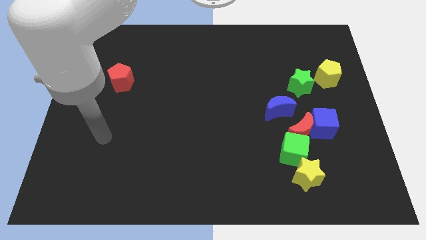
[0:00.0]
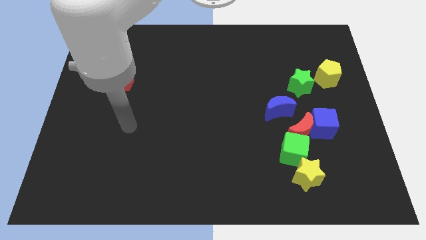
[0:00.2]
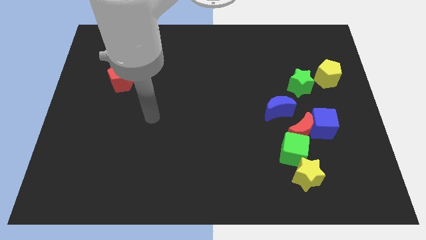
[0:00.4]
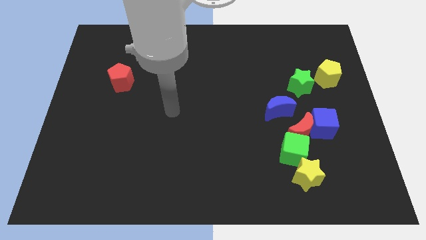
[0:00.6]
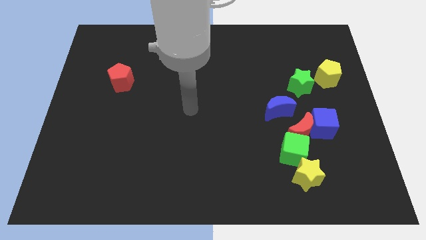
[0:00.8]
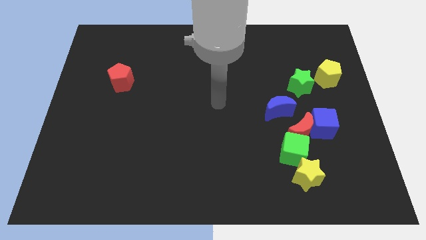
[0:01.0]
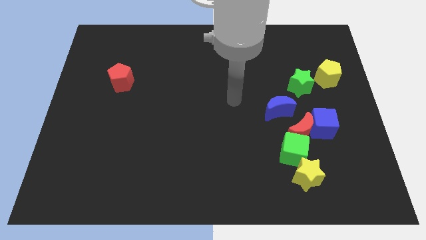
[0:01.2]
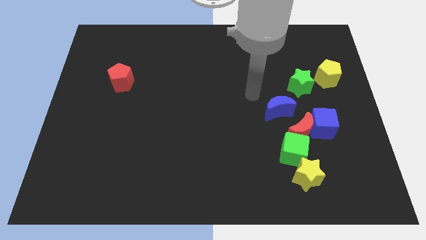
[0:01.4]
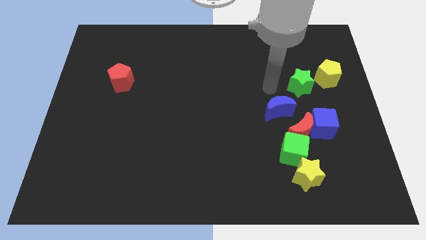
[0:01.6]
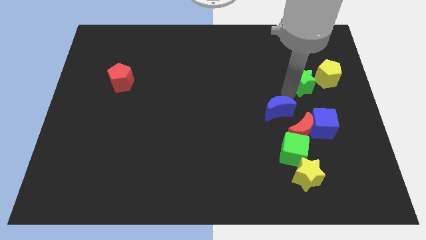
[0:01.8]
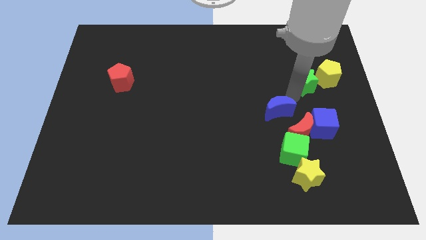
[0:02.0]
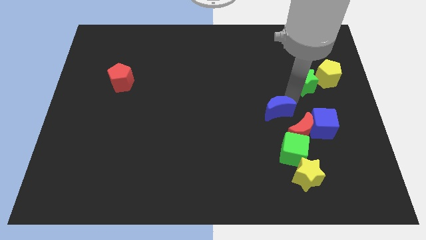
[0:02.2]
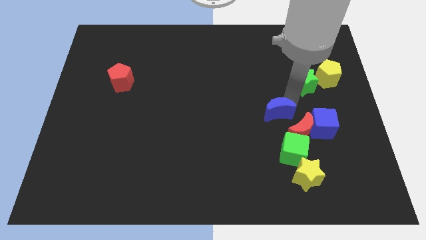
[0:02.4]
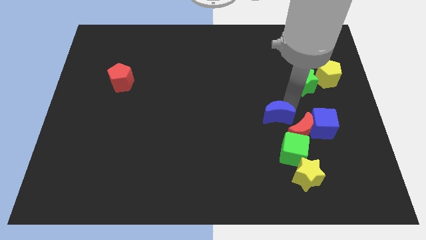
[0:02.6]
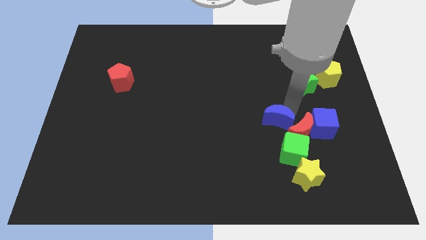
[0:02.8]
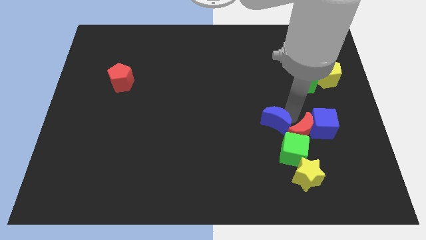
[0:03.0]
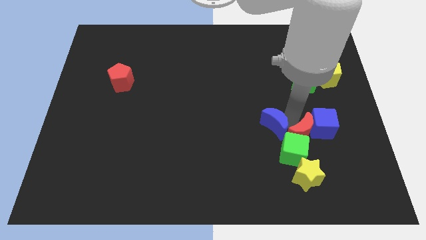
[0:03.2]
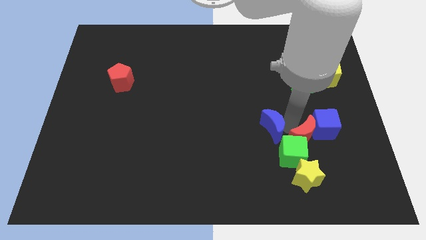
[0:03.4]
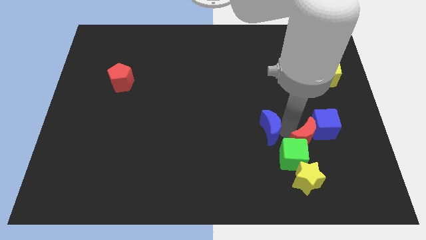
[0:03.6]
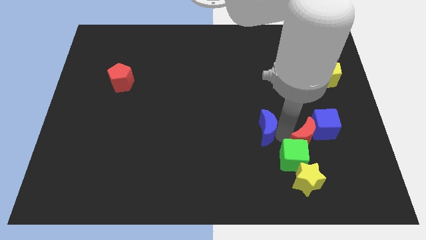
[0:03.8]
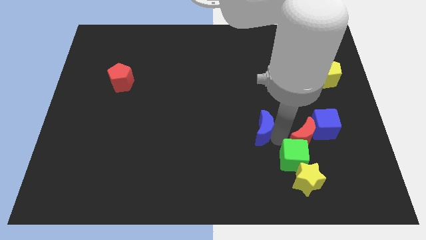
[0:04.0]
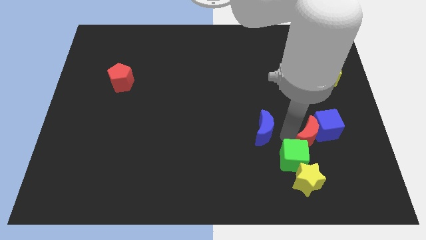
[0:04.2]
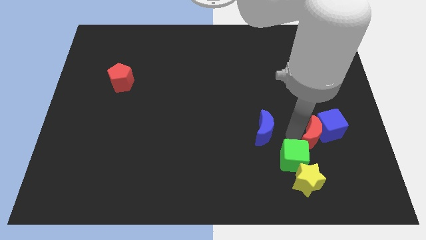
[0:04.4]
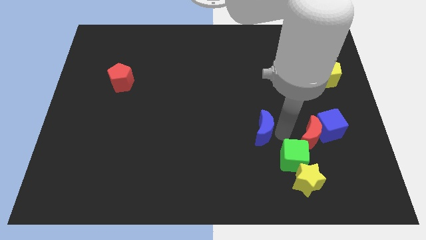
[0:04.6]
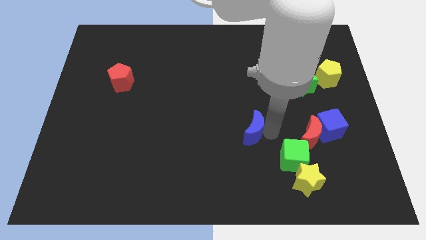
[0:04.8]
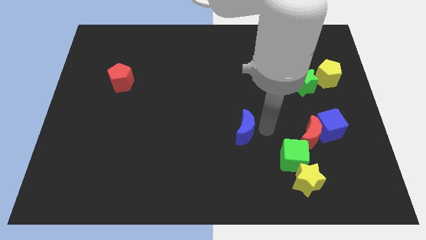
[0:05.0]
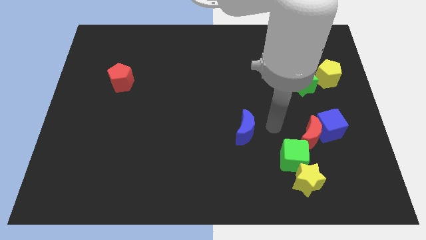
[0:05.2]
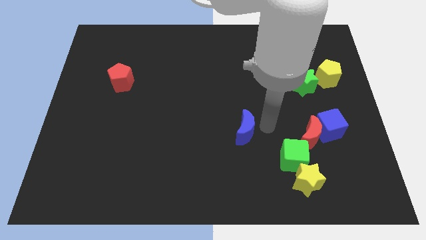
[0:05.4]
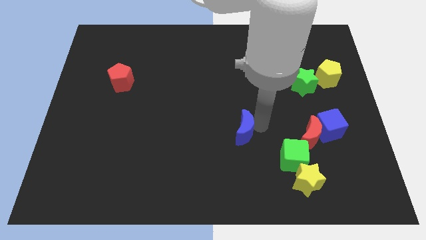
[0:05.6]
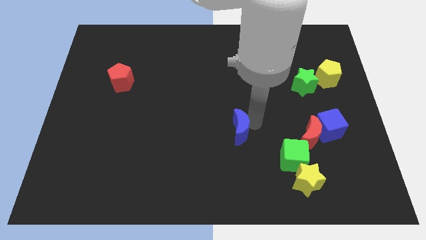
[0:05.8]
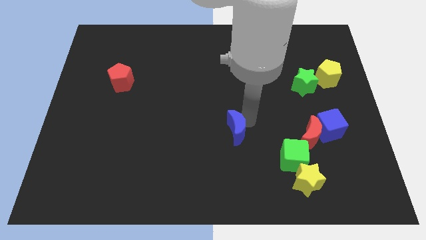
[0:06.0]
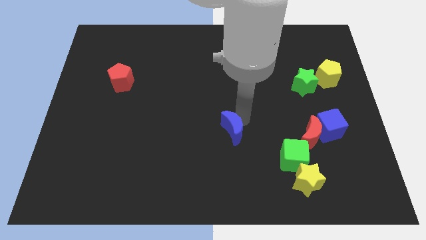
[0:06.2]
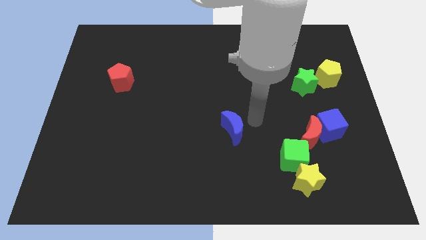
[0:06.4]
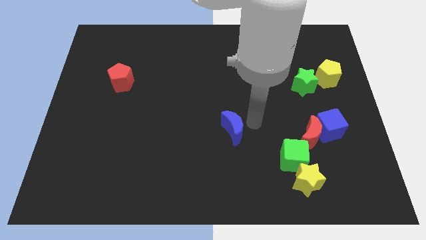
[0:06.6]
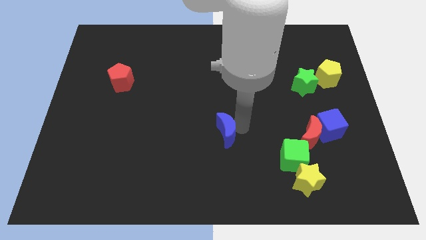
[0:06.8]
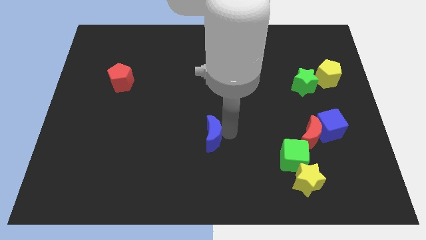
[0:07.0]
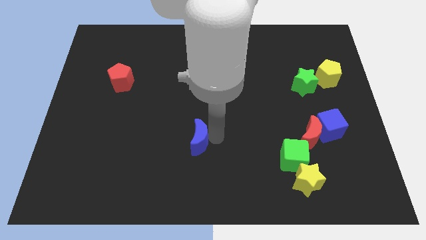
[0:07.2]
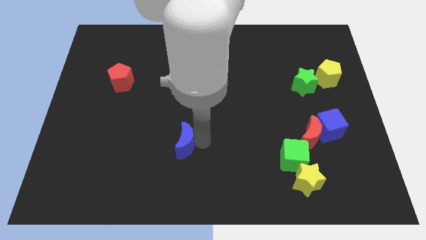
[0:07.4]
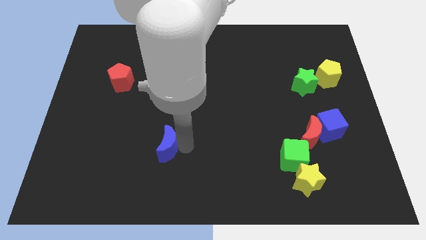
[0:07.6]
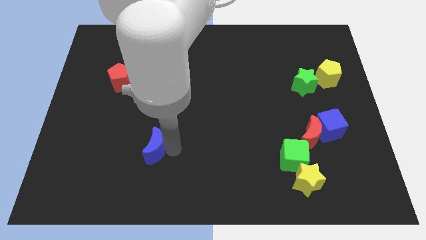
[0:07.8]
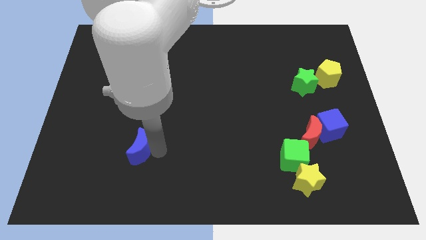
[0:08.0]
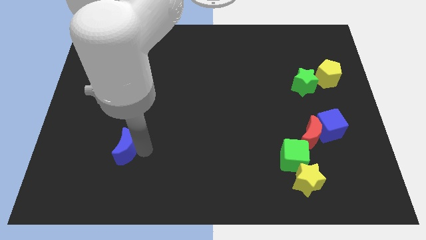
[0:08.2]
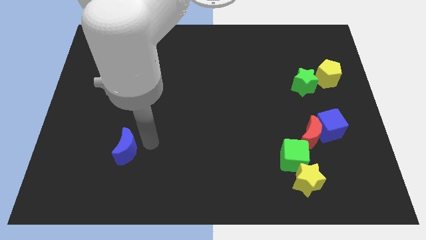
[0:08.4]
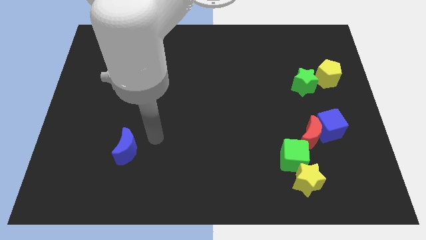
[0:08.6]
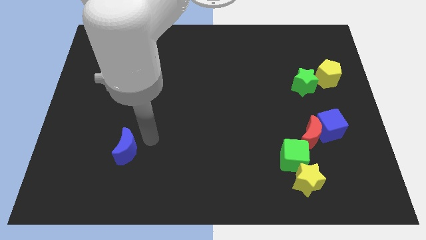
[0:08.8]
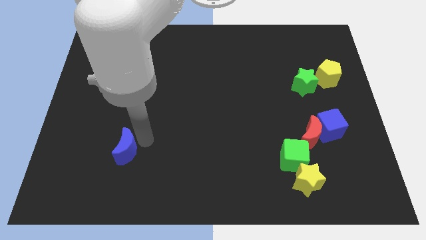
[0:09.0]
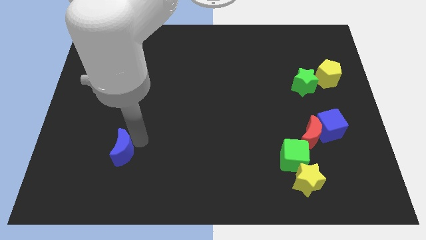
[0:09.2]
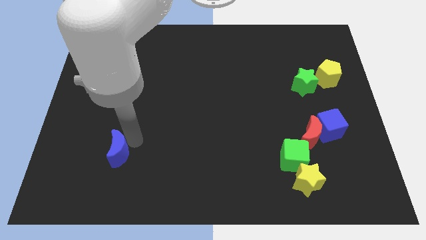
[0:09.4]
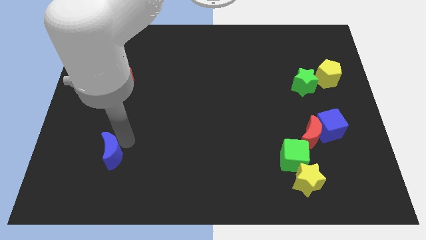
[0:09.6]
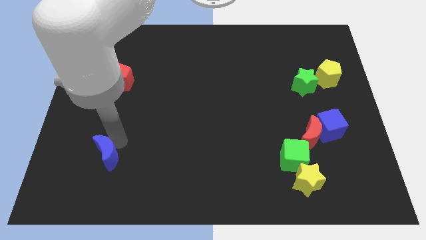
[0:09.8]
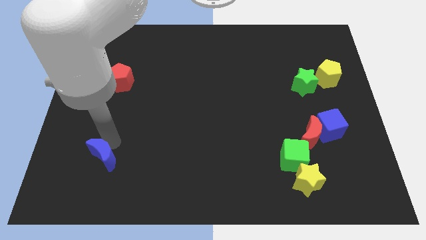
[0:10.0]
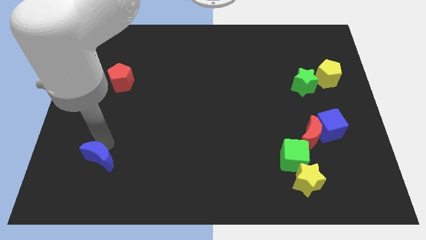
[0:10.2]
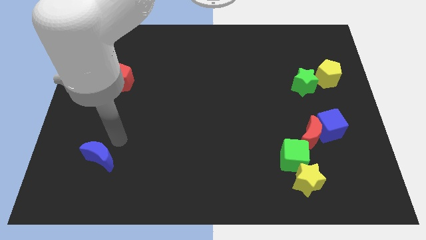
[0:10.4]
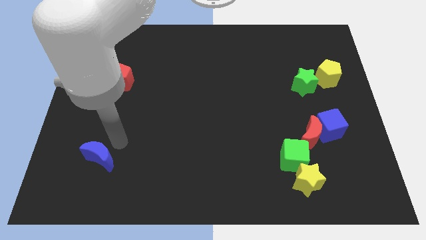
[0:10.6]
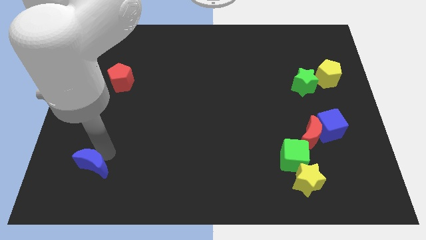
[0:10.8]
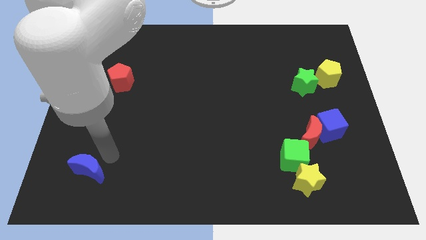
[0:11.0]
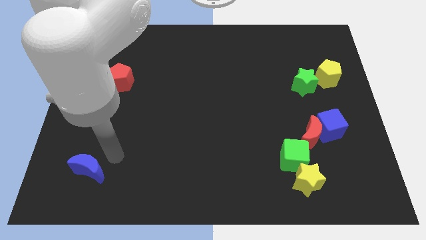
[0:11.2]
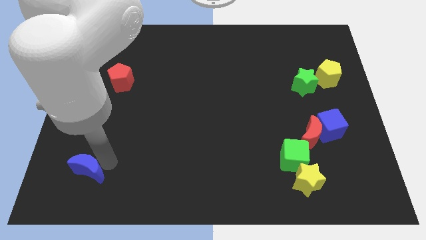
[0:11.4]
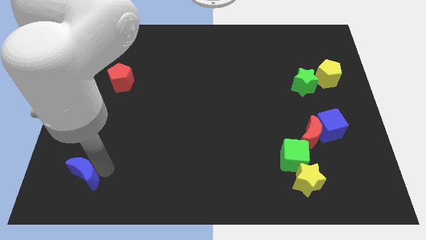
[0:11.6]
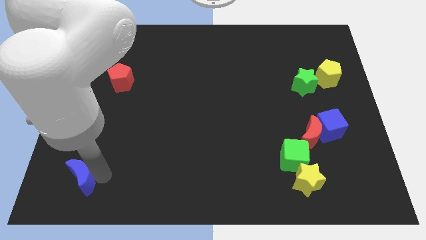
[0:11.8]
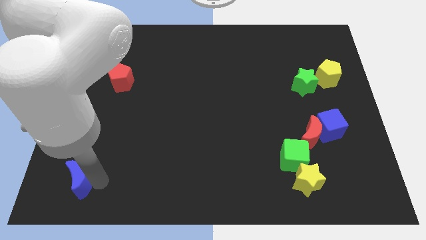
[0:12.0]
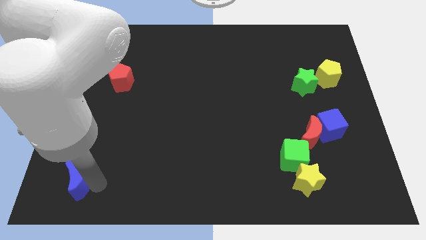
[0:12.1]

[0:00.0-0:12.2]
move the blue moon to the bottom left of the board

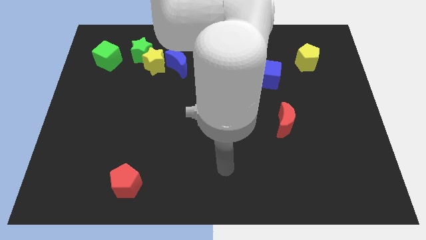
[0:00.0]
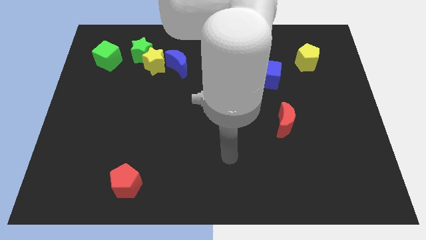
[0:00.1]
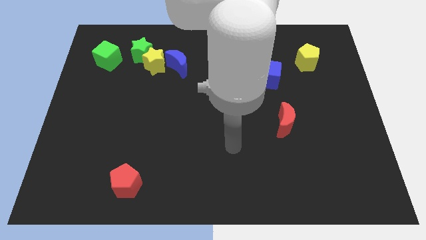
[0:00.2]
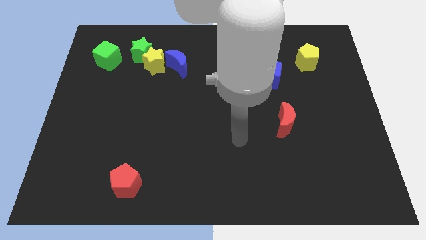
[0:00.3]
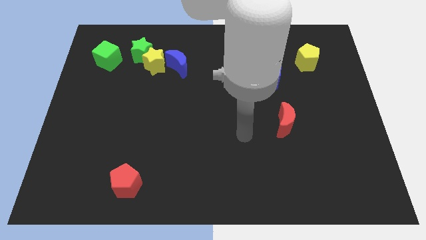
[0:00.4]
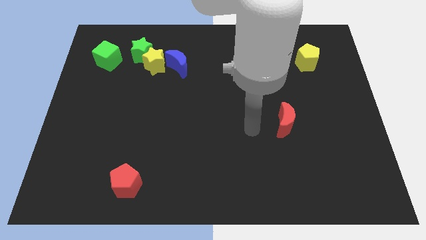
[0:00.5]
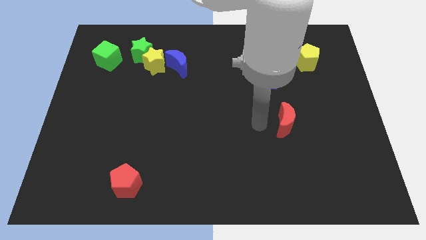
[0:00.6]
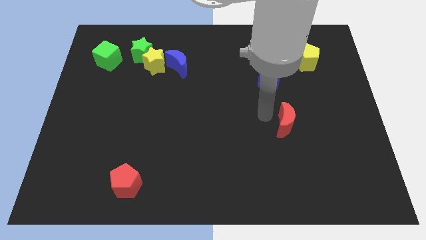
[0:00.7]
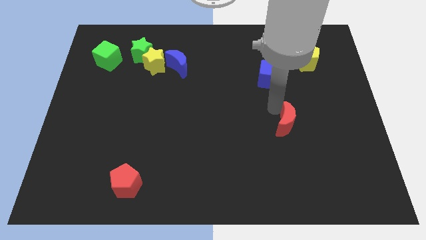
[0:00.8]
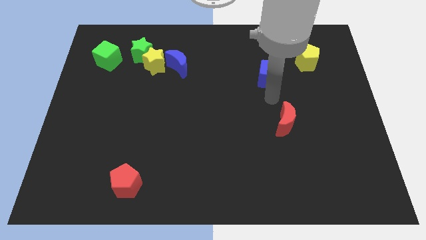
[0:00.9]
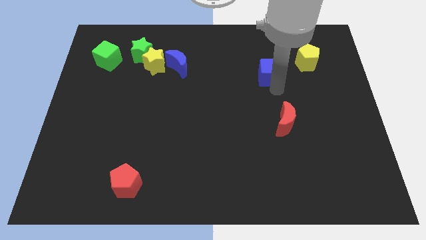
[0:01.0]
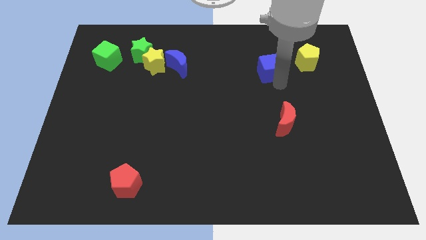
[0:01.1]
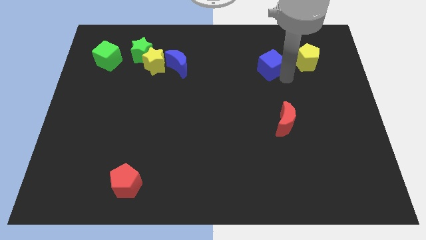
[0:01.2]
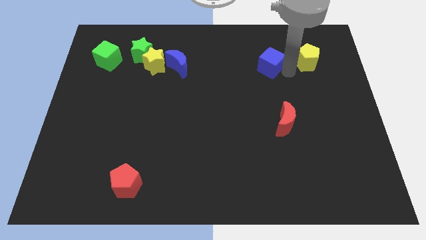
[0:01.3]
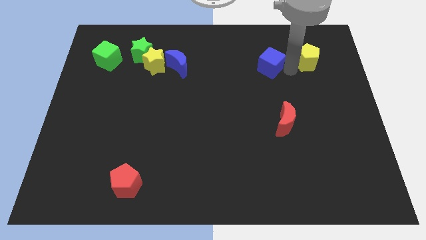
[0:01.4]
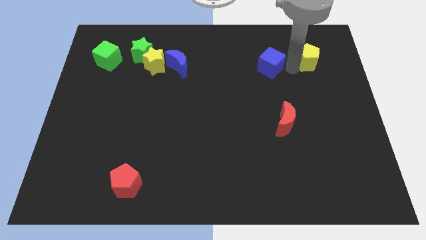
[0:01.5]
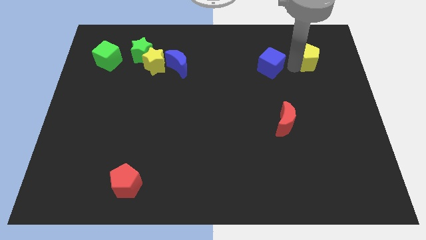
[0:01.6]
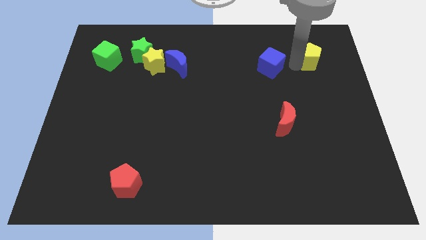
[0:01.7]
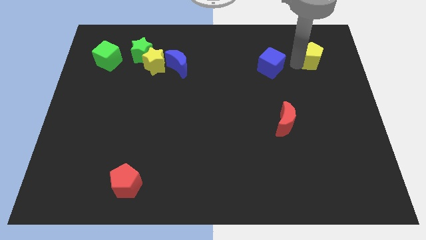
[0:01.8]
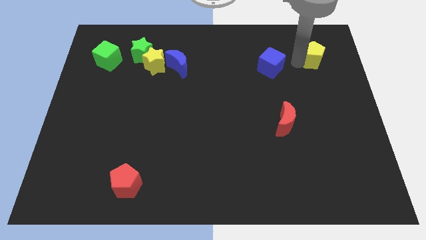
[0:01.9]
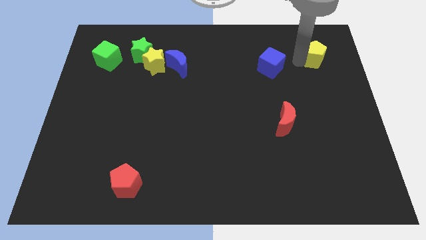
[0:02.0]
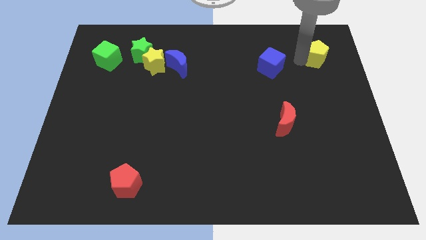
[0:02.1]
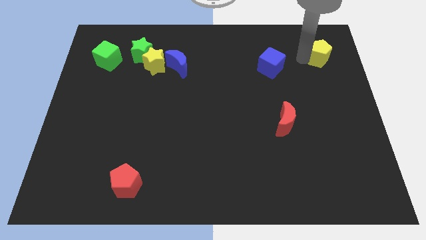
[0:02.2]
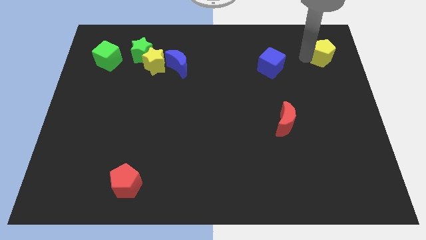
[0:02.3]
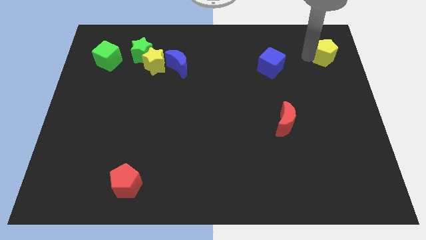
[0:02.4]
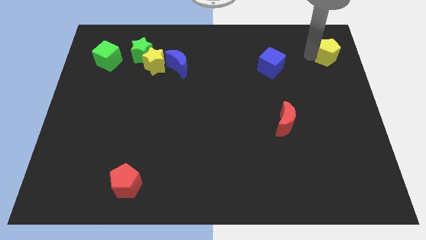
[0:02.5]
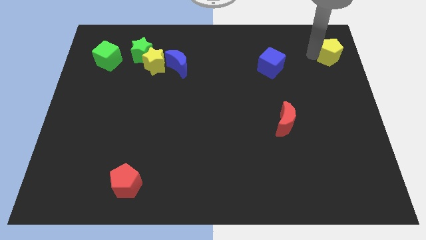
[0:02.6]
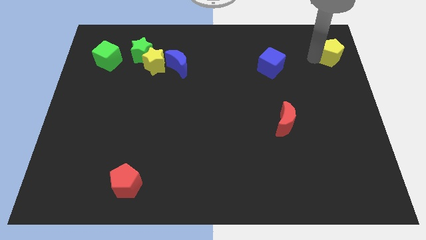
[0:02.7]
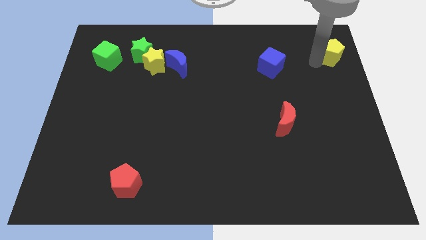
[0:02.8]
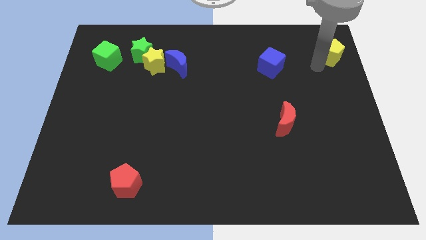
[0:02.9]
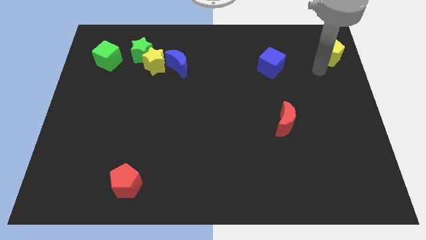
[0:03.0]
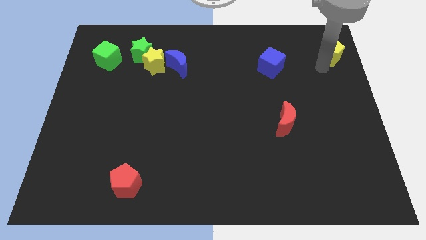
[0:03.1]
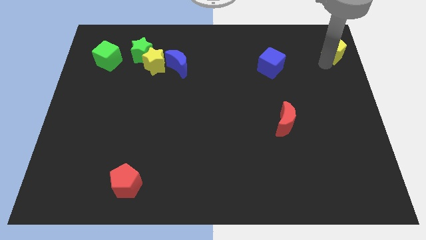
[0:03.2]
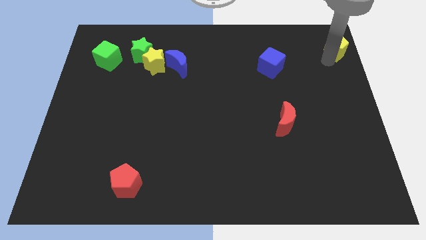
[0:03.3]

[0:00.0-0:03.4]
slide the yellow pentagon to the upper right corner
